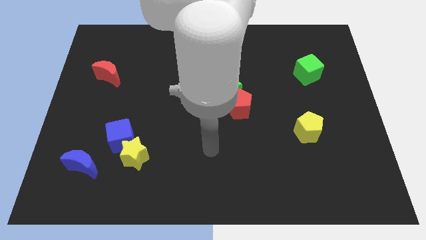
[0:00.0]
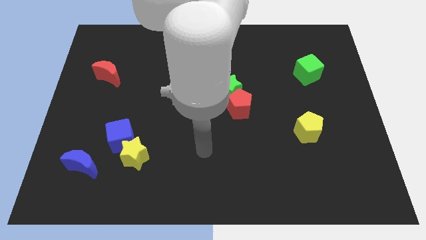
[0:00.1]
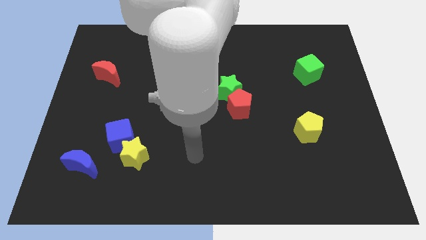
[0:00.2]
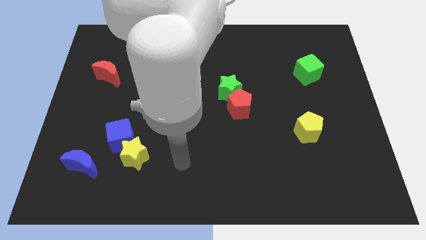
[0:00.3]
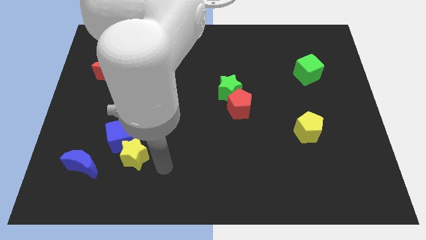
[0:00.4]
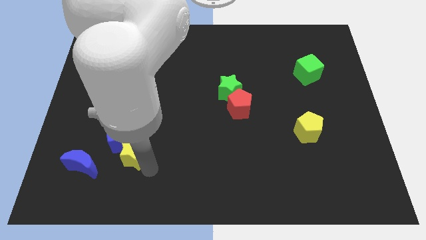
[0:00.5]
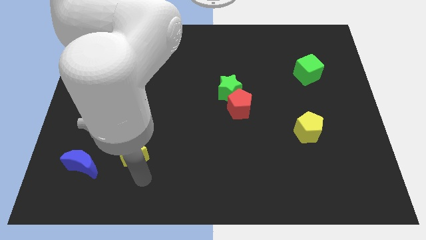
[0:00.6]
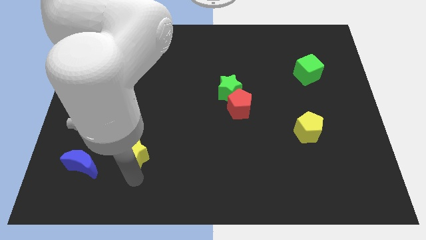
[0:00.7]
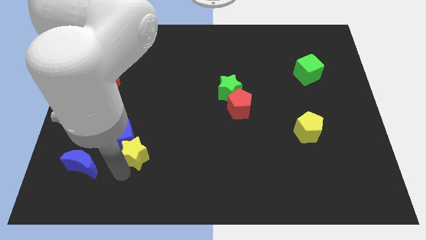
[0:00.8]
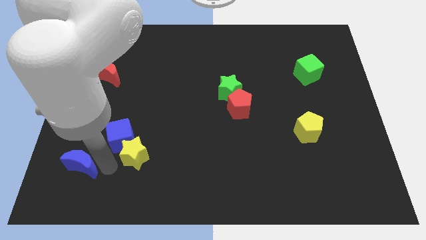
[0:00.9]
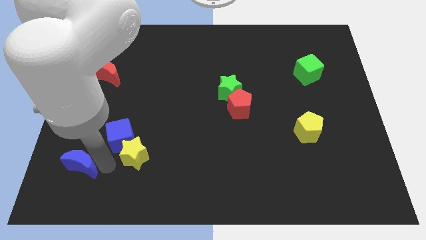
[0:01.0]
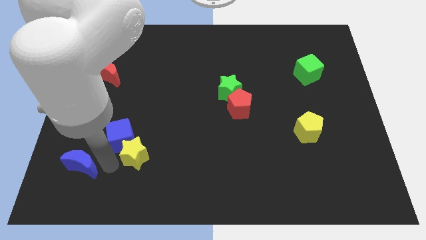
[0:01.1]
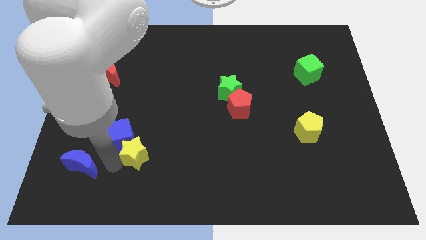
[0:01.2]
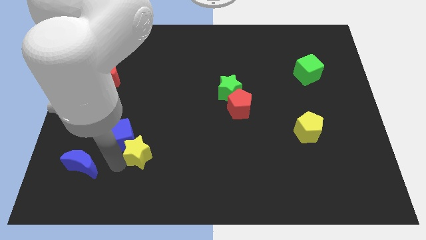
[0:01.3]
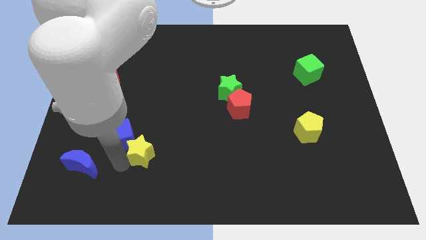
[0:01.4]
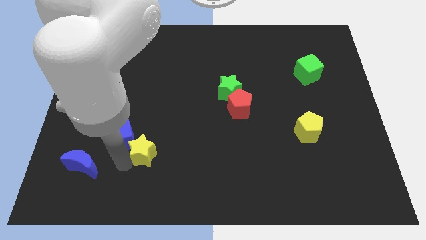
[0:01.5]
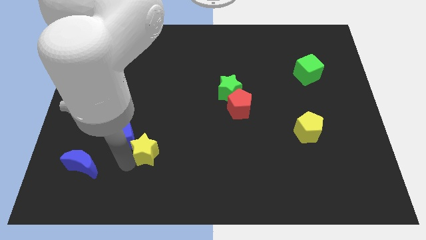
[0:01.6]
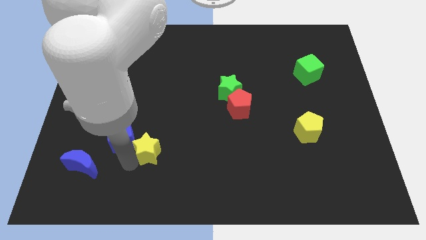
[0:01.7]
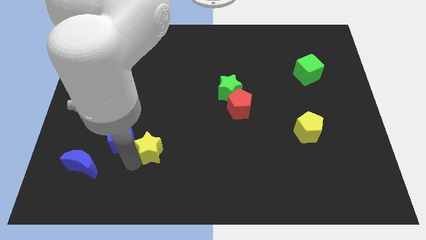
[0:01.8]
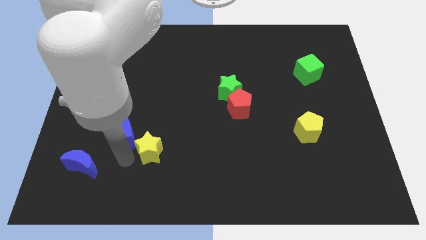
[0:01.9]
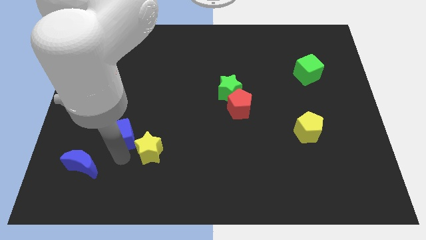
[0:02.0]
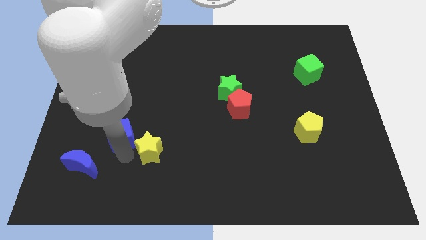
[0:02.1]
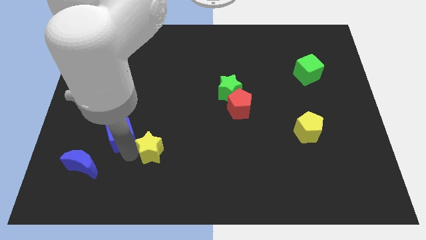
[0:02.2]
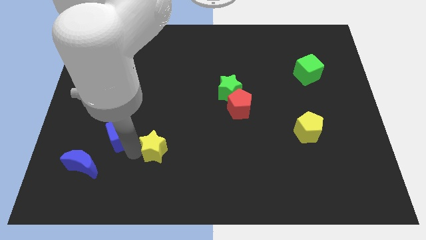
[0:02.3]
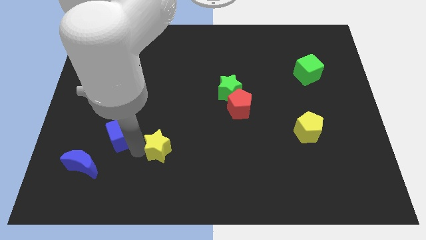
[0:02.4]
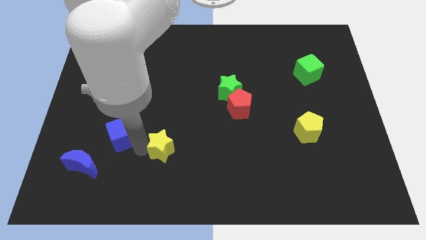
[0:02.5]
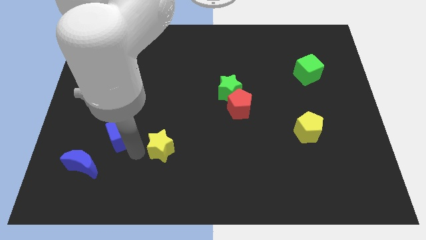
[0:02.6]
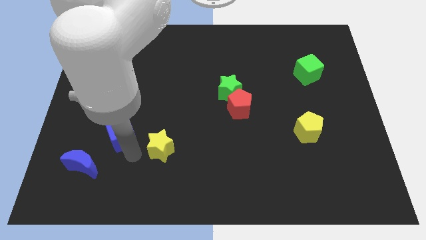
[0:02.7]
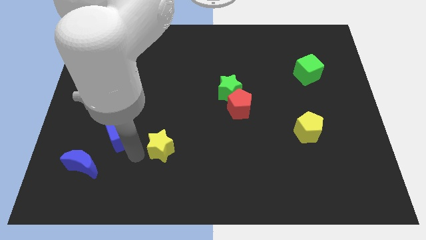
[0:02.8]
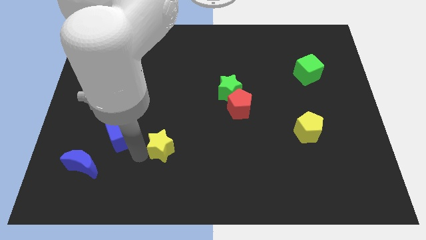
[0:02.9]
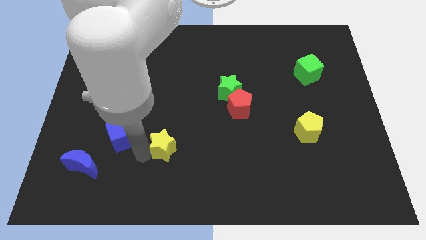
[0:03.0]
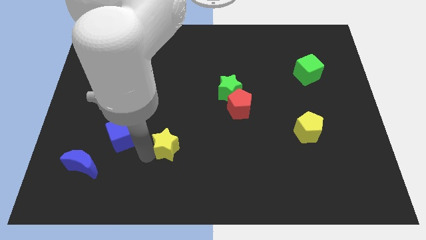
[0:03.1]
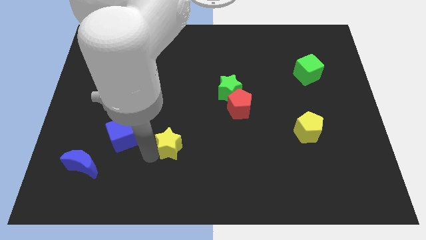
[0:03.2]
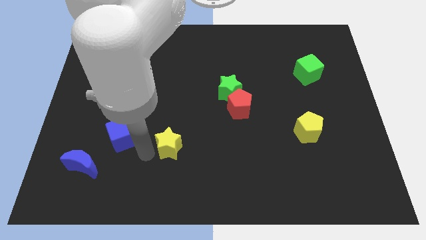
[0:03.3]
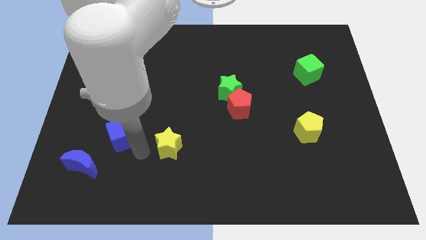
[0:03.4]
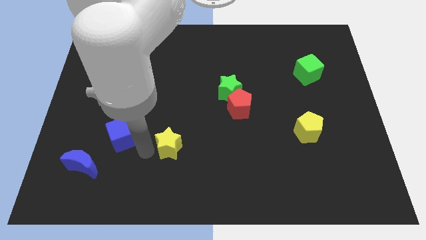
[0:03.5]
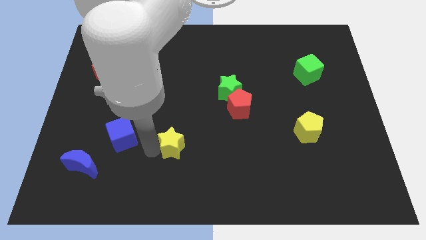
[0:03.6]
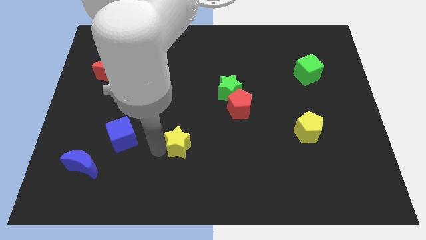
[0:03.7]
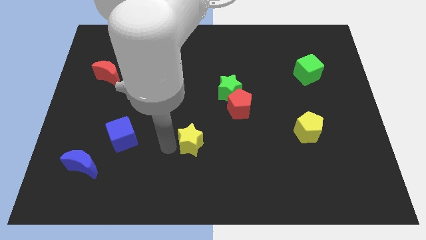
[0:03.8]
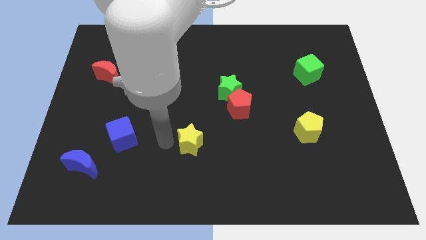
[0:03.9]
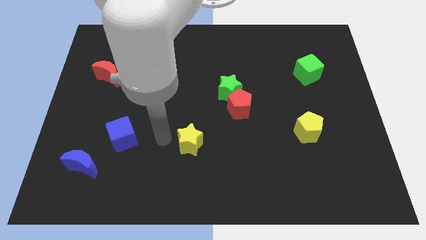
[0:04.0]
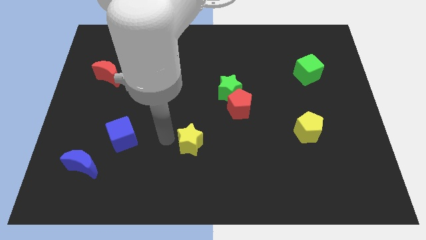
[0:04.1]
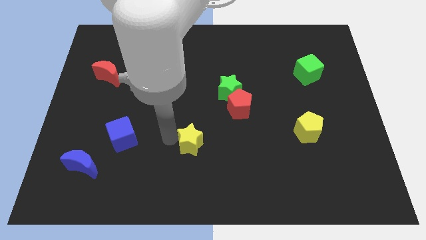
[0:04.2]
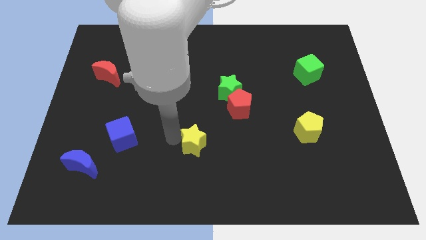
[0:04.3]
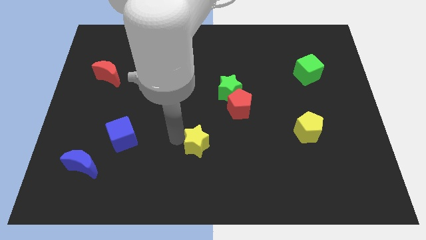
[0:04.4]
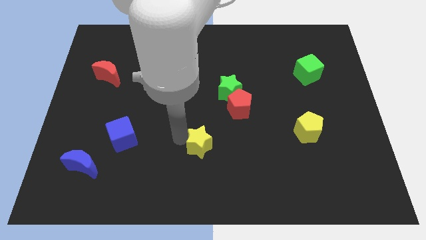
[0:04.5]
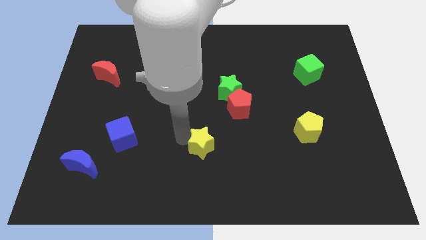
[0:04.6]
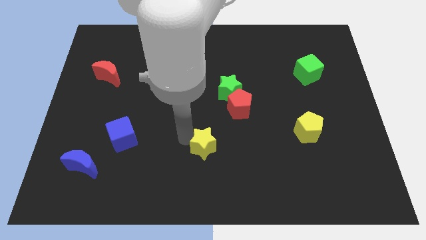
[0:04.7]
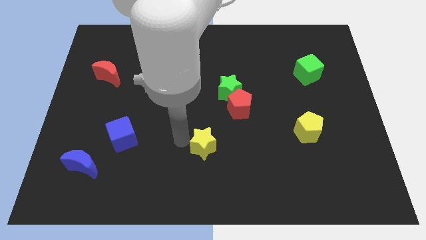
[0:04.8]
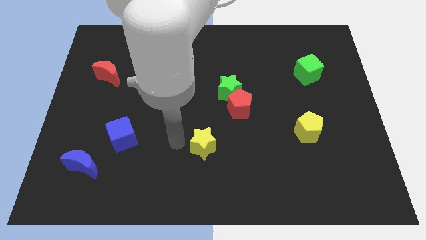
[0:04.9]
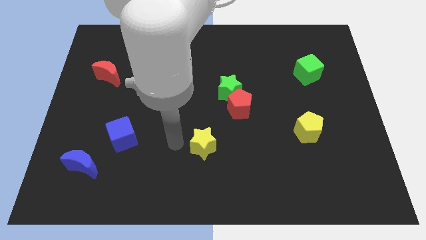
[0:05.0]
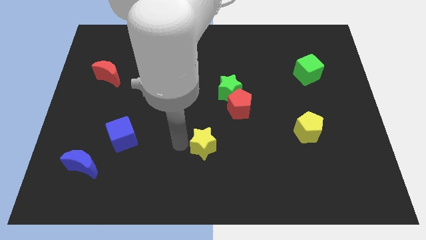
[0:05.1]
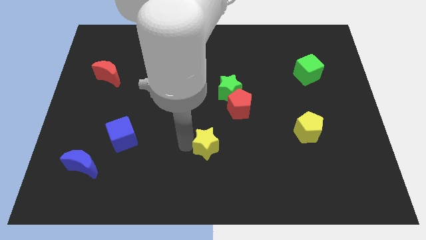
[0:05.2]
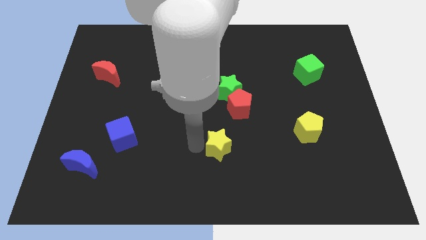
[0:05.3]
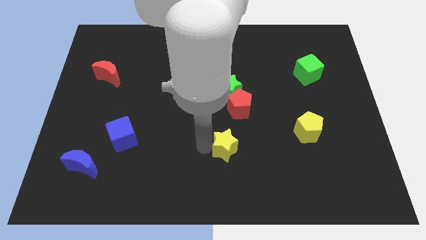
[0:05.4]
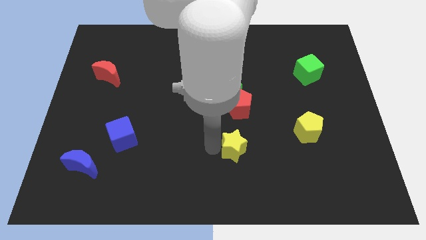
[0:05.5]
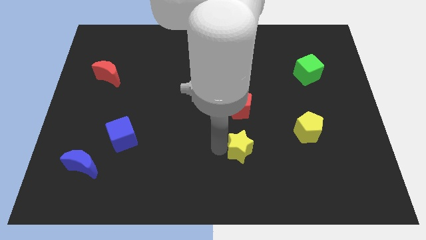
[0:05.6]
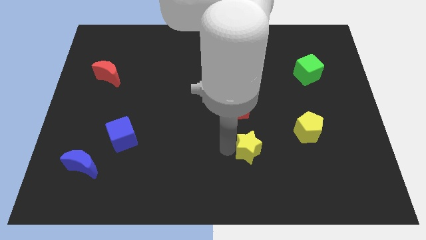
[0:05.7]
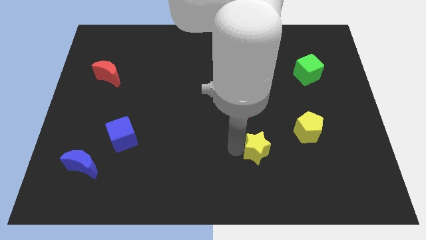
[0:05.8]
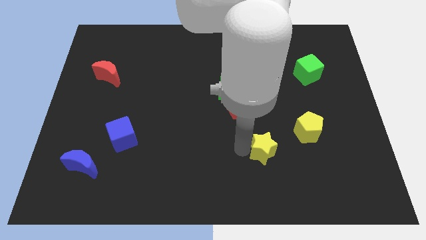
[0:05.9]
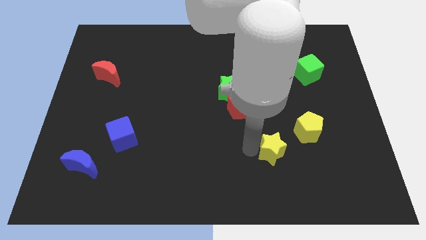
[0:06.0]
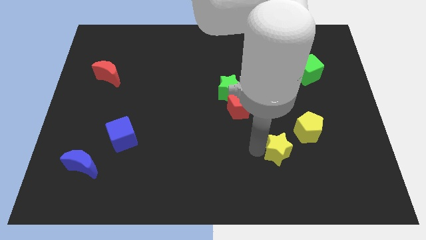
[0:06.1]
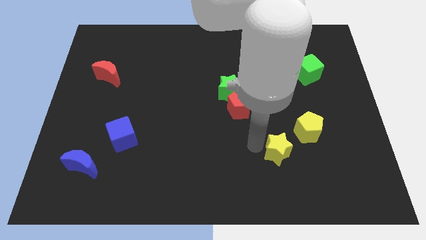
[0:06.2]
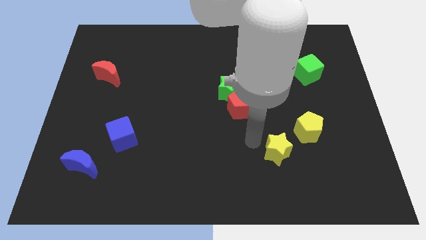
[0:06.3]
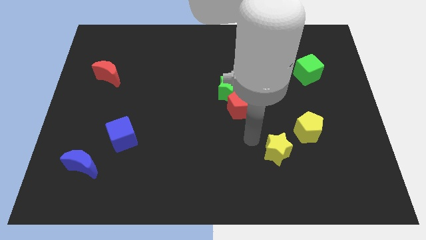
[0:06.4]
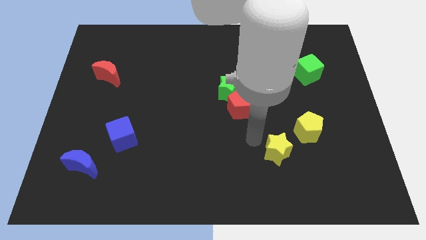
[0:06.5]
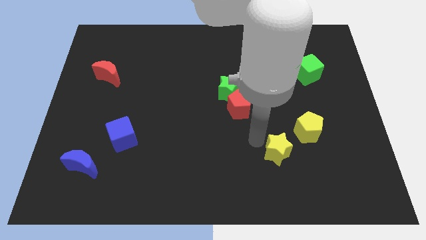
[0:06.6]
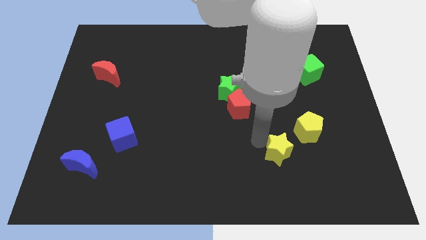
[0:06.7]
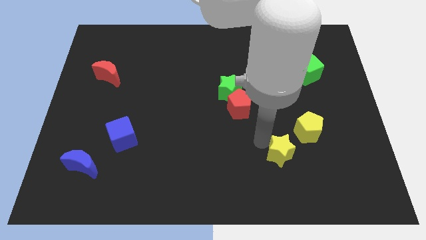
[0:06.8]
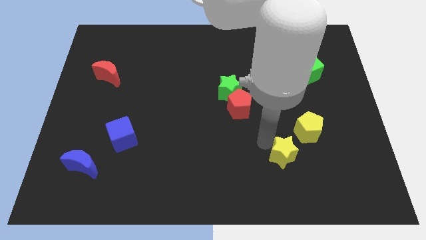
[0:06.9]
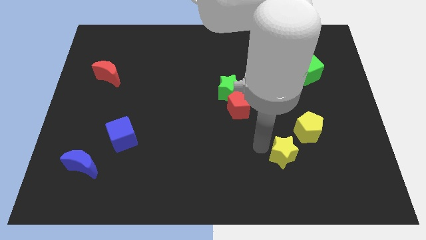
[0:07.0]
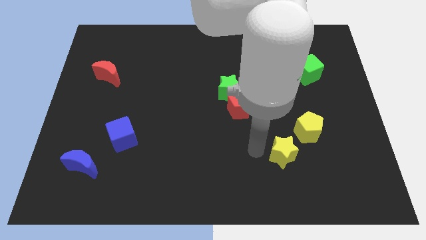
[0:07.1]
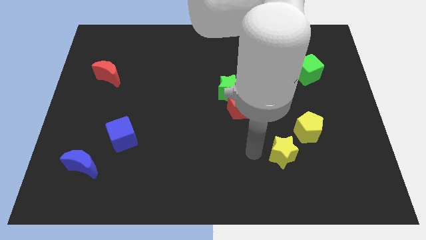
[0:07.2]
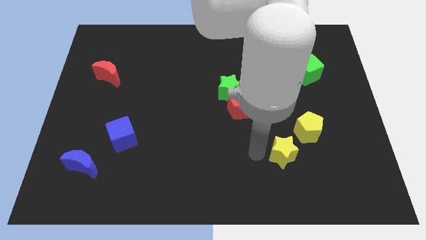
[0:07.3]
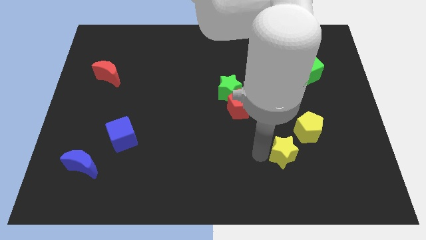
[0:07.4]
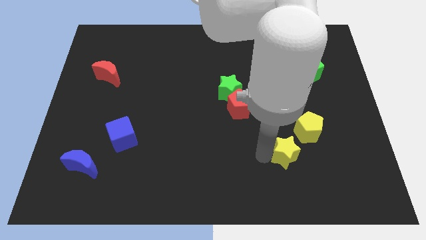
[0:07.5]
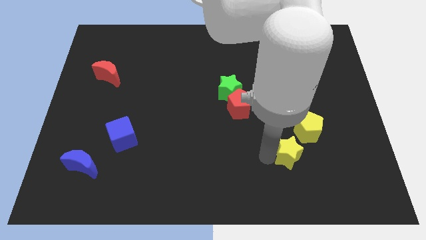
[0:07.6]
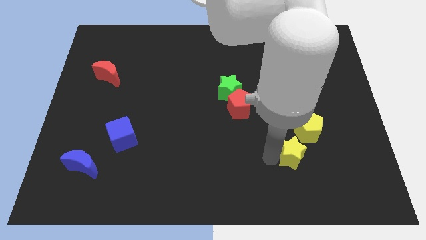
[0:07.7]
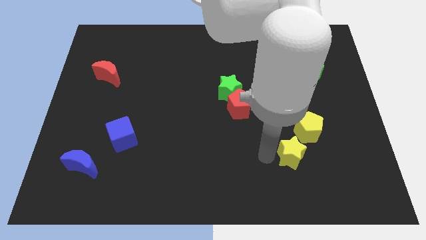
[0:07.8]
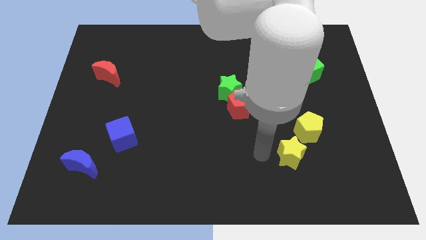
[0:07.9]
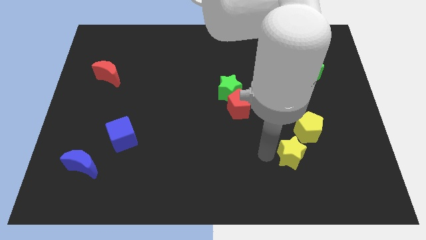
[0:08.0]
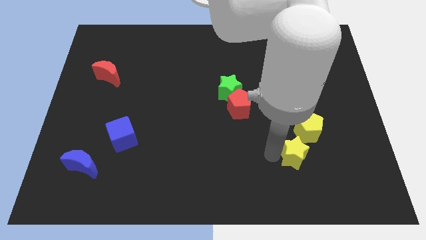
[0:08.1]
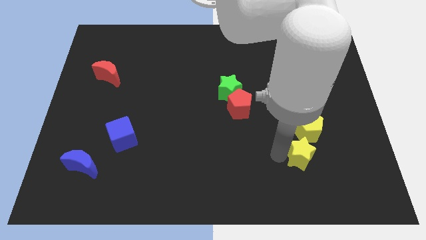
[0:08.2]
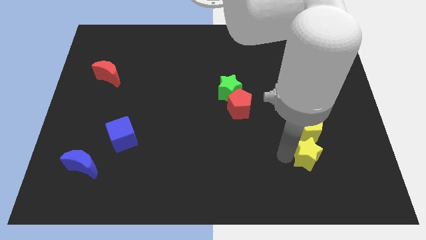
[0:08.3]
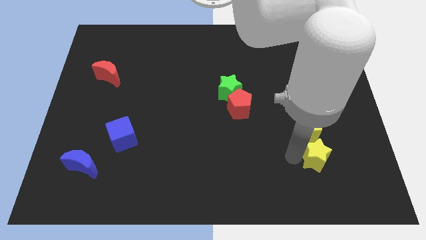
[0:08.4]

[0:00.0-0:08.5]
slide the yellow star to the bottom right side of the yellow pentagon
